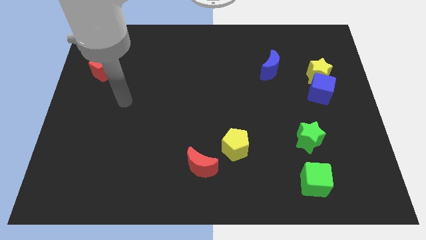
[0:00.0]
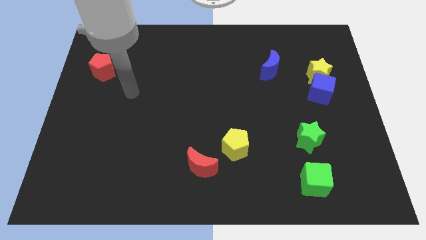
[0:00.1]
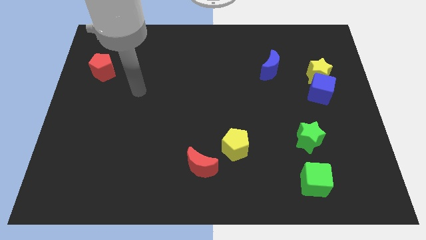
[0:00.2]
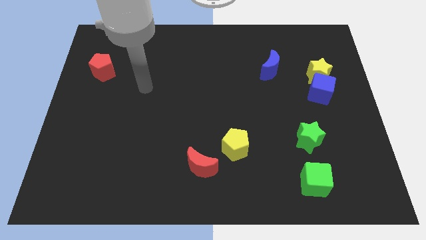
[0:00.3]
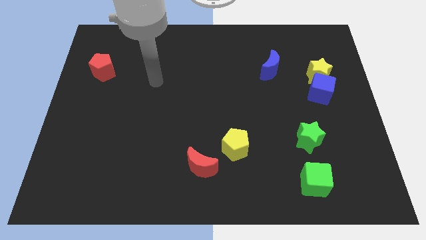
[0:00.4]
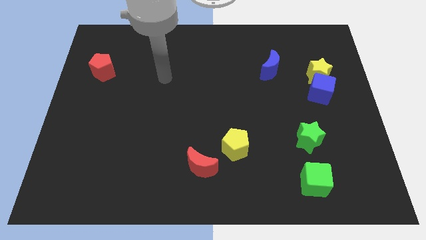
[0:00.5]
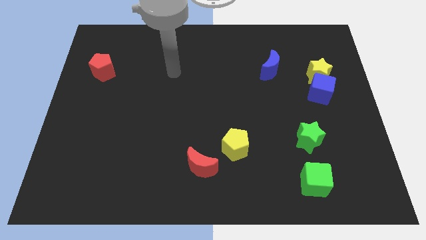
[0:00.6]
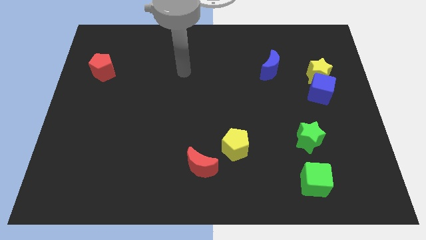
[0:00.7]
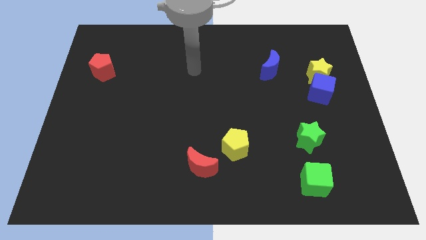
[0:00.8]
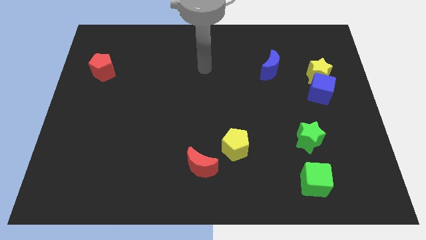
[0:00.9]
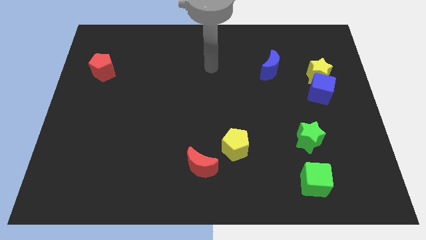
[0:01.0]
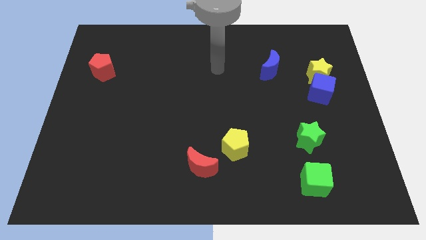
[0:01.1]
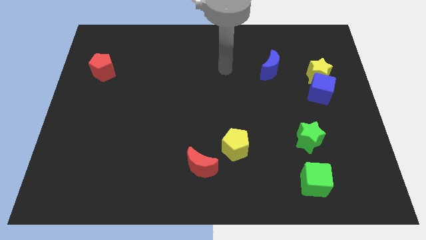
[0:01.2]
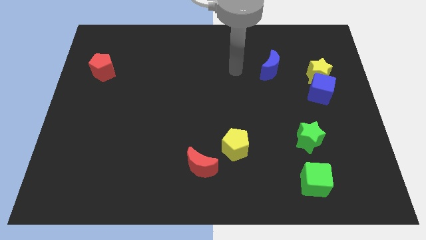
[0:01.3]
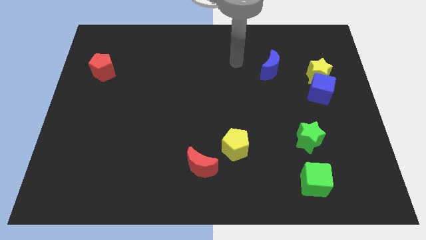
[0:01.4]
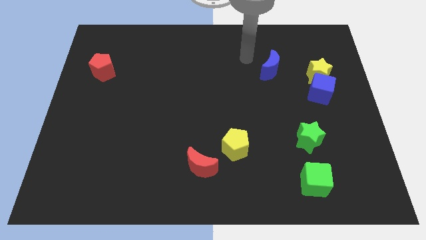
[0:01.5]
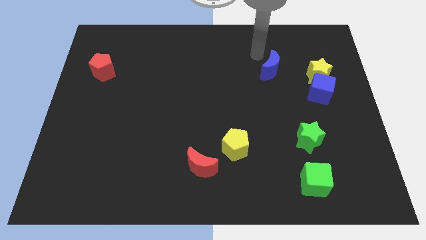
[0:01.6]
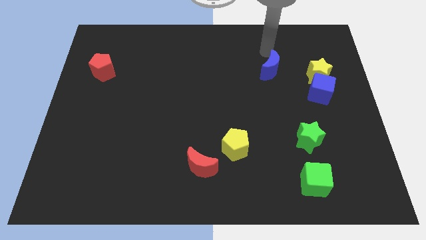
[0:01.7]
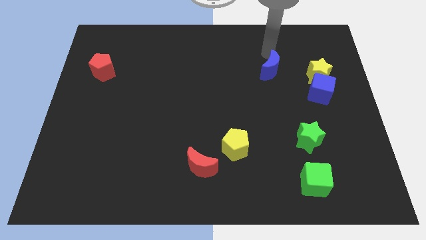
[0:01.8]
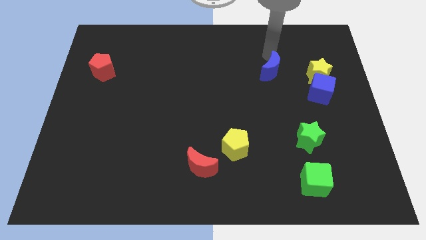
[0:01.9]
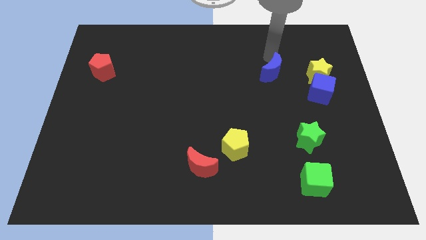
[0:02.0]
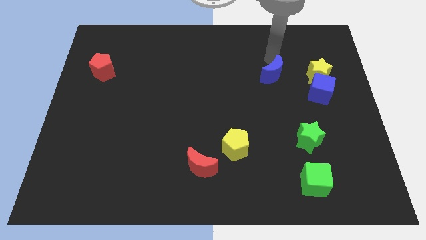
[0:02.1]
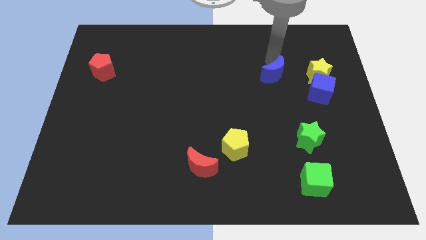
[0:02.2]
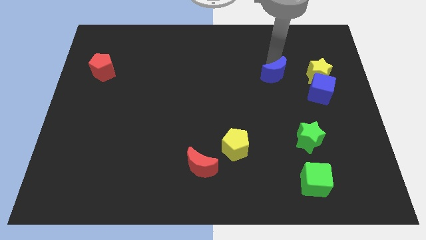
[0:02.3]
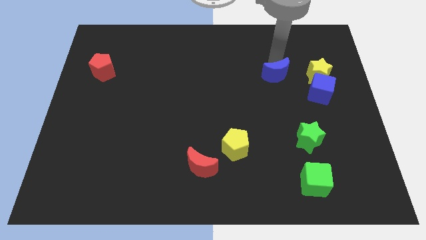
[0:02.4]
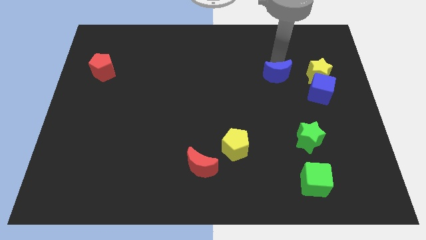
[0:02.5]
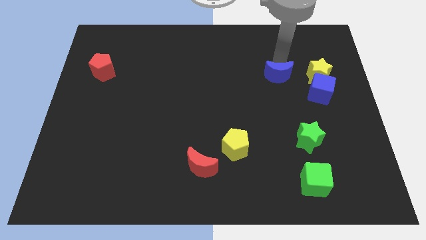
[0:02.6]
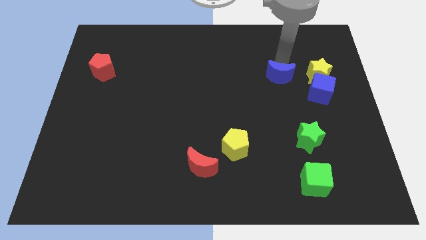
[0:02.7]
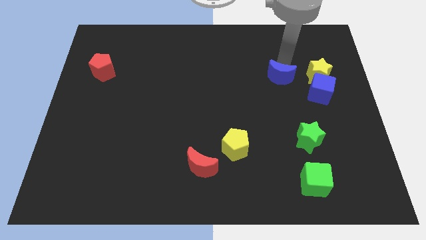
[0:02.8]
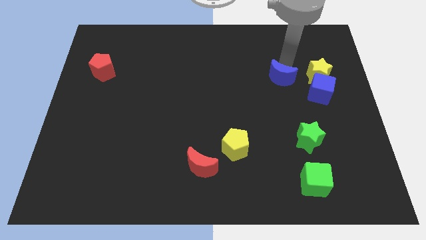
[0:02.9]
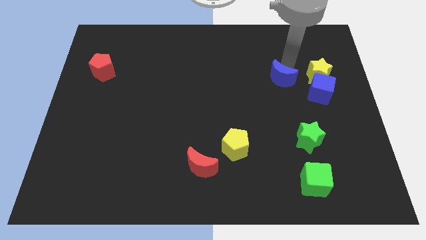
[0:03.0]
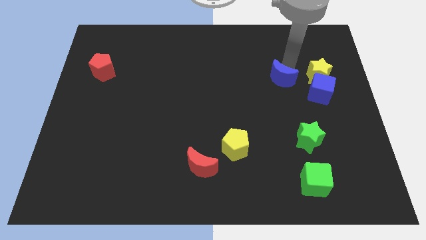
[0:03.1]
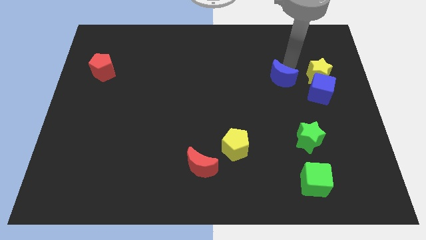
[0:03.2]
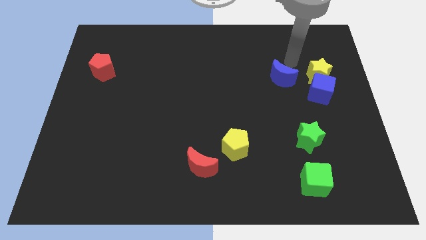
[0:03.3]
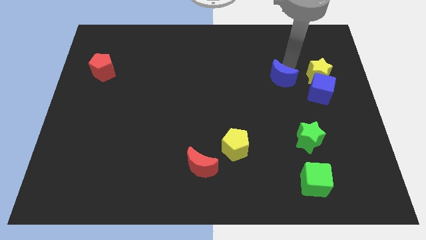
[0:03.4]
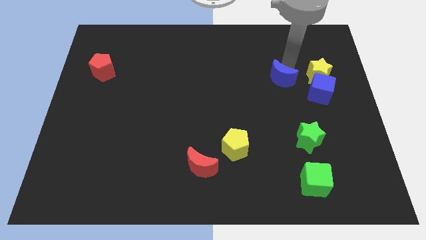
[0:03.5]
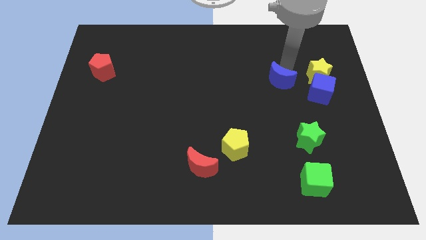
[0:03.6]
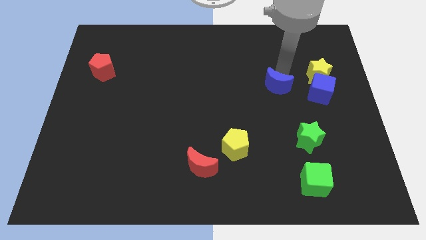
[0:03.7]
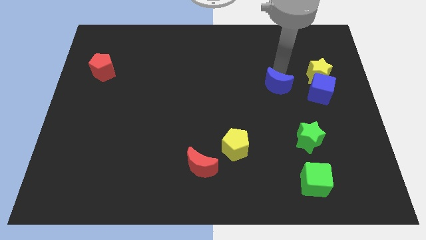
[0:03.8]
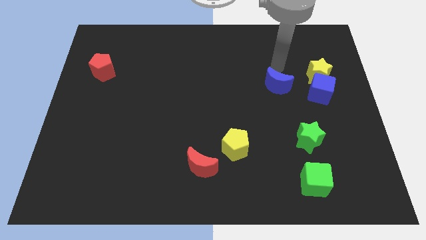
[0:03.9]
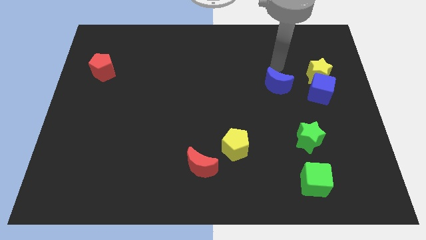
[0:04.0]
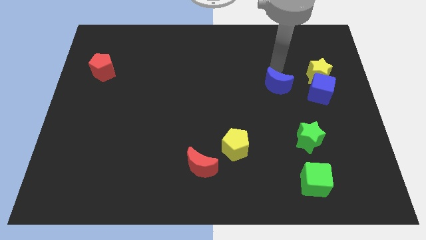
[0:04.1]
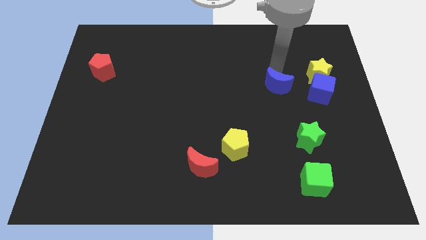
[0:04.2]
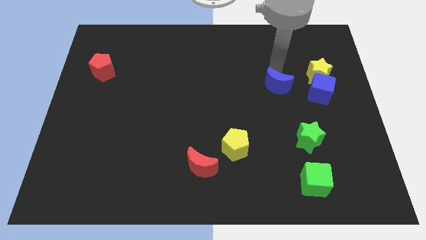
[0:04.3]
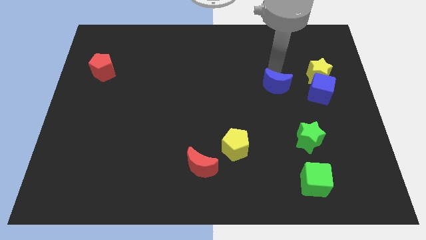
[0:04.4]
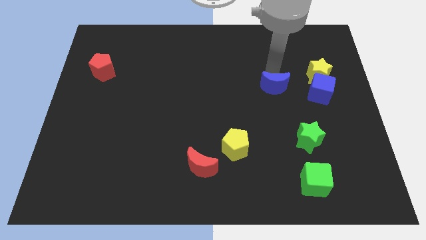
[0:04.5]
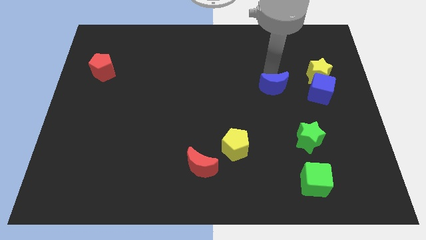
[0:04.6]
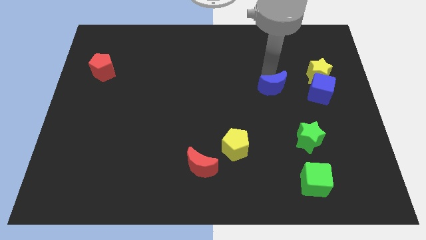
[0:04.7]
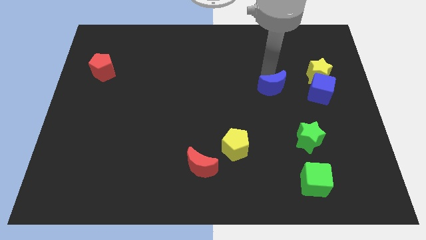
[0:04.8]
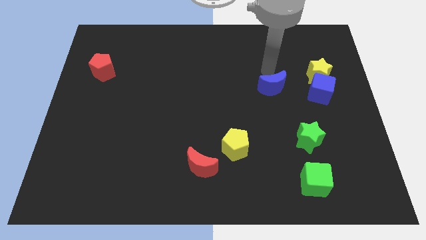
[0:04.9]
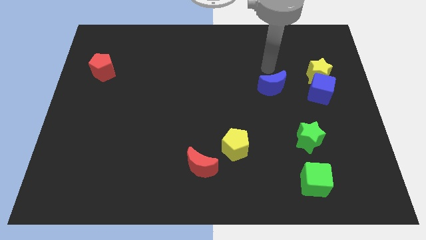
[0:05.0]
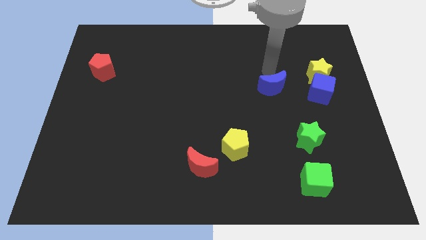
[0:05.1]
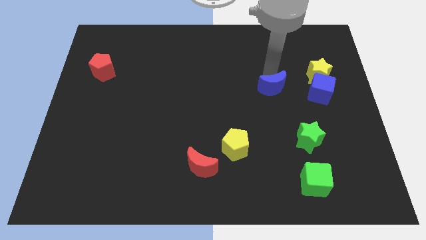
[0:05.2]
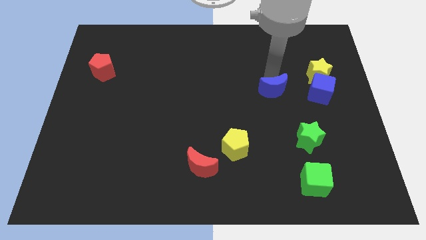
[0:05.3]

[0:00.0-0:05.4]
slightly slide the blue moon down

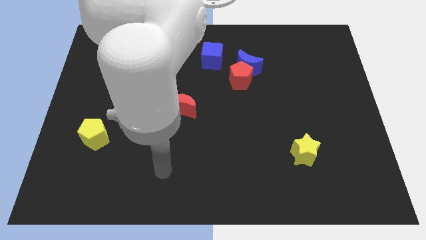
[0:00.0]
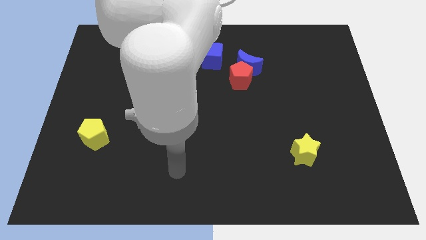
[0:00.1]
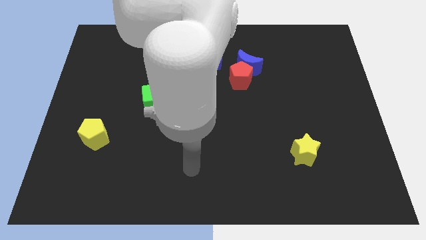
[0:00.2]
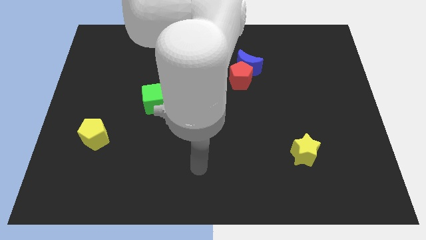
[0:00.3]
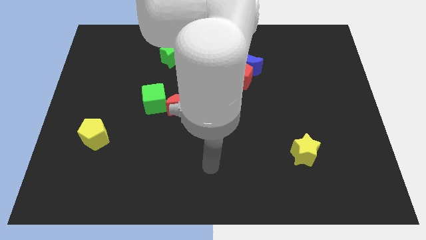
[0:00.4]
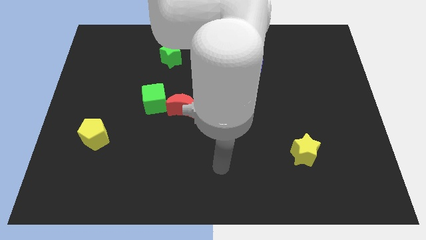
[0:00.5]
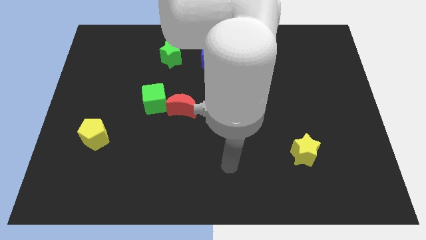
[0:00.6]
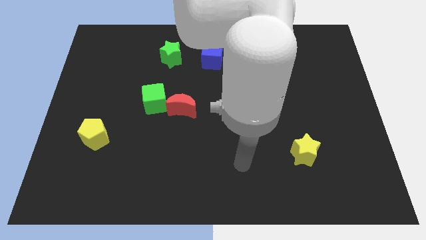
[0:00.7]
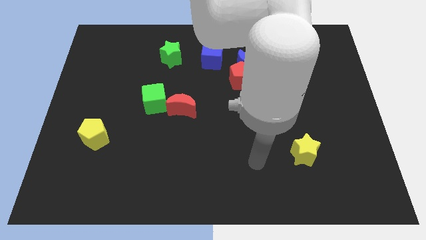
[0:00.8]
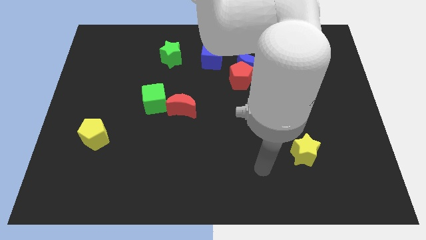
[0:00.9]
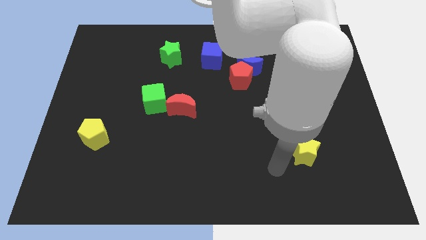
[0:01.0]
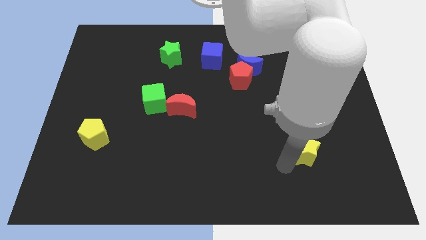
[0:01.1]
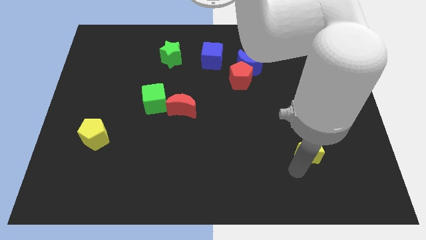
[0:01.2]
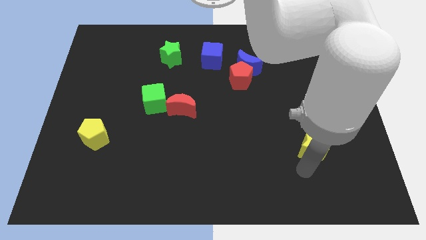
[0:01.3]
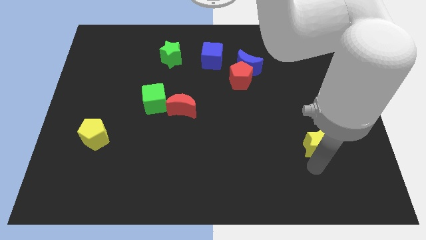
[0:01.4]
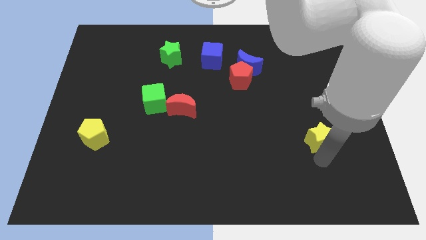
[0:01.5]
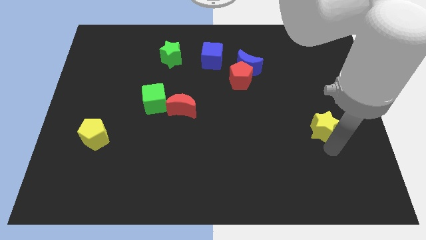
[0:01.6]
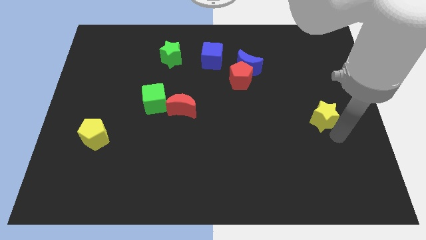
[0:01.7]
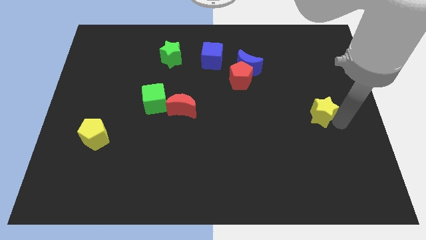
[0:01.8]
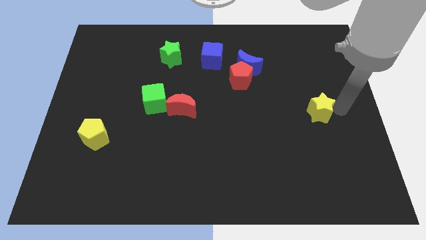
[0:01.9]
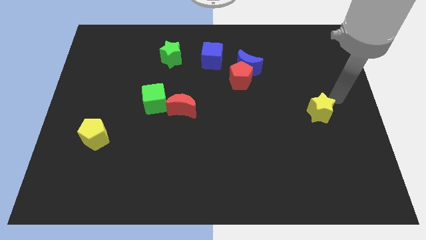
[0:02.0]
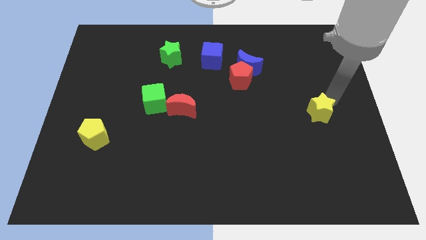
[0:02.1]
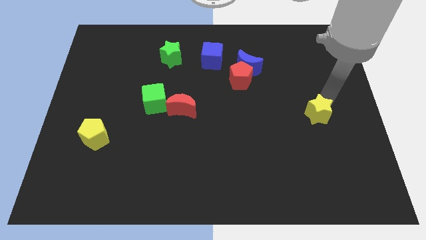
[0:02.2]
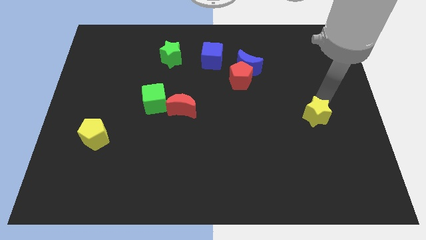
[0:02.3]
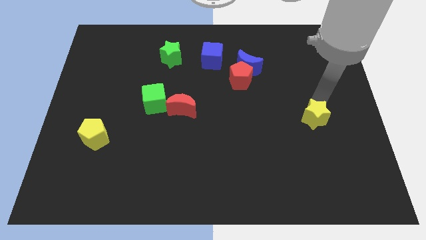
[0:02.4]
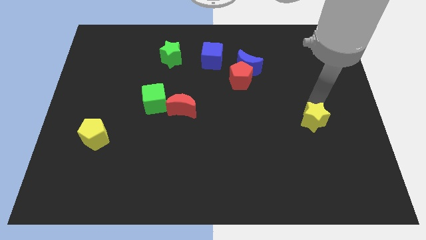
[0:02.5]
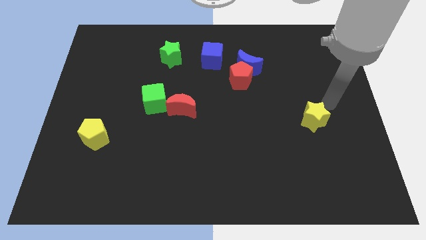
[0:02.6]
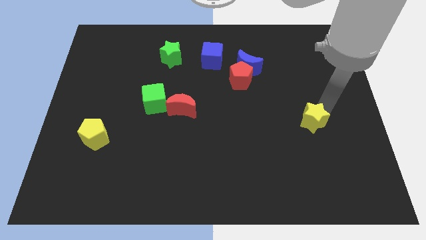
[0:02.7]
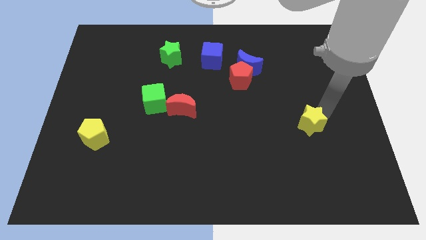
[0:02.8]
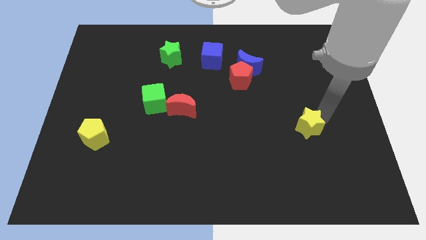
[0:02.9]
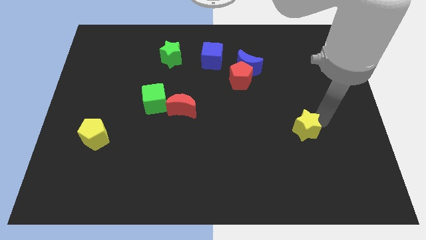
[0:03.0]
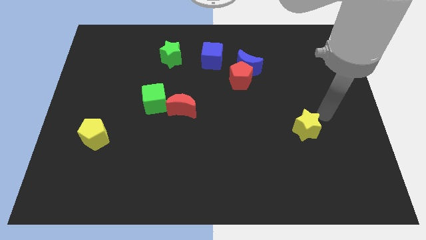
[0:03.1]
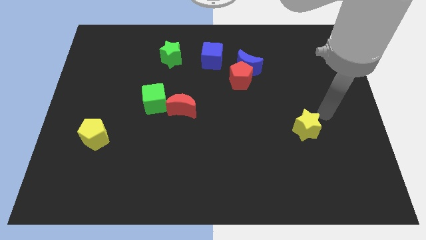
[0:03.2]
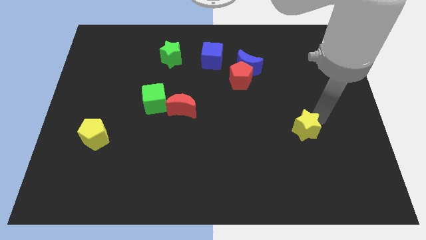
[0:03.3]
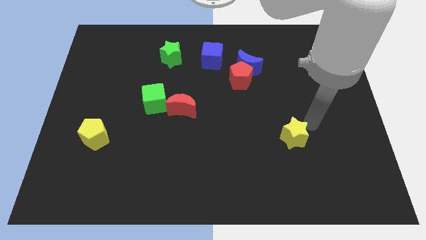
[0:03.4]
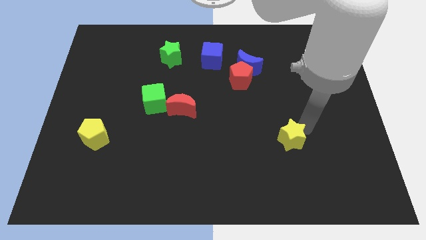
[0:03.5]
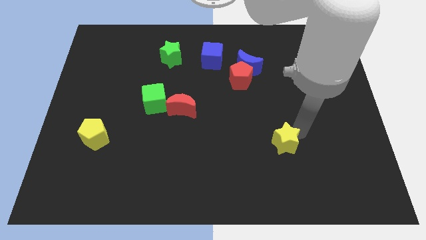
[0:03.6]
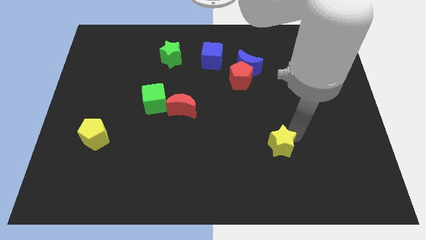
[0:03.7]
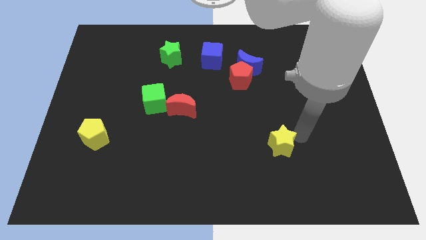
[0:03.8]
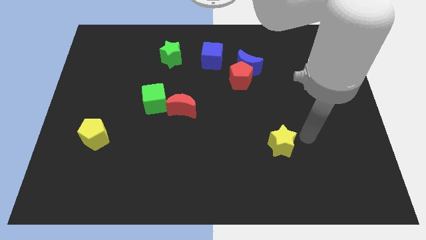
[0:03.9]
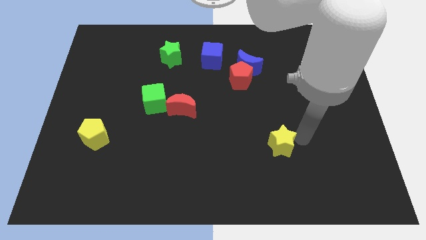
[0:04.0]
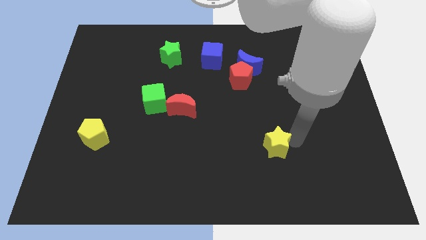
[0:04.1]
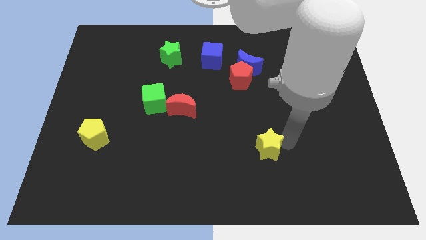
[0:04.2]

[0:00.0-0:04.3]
slightly slide the yellow star left
